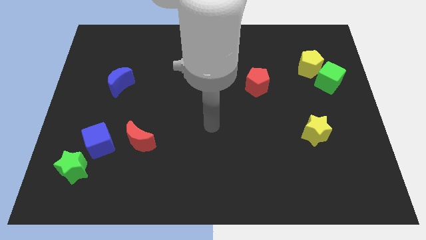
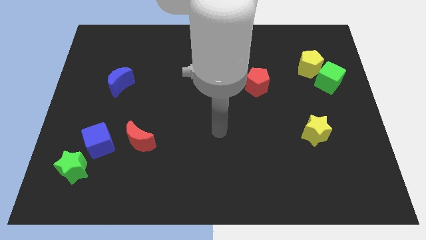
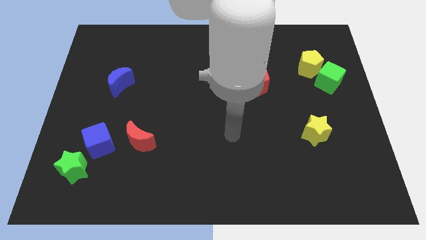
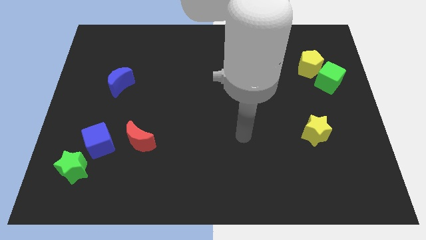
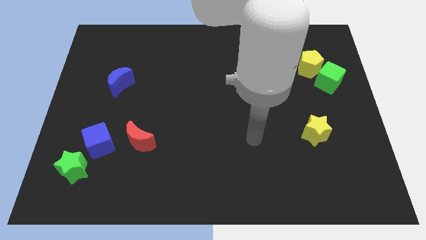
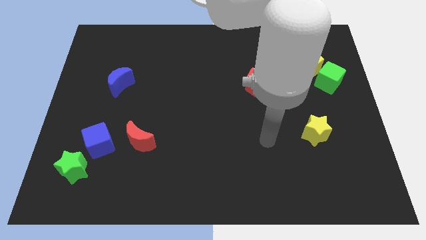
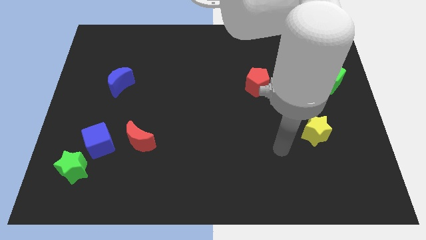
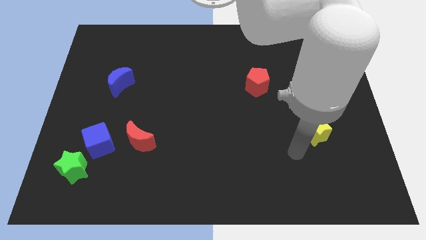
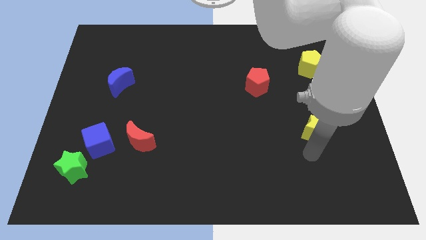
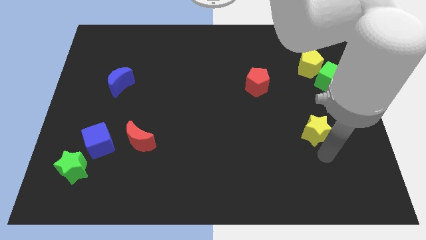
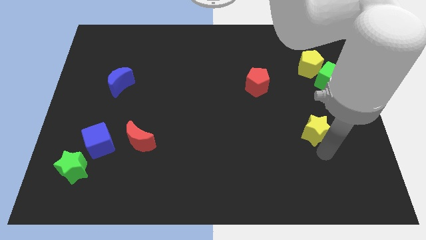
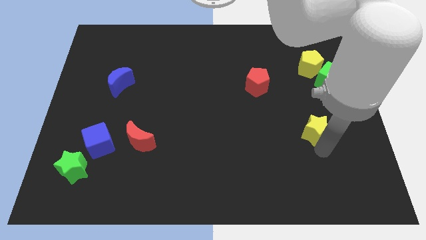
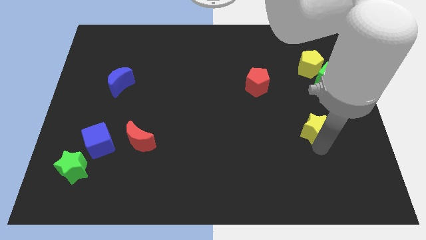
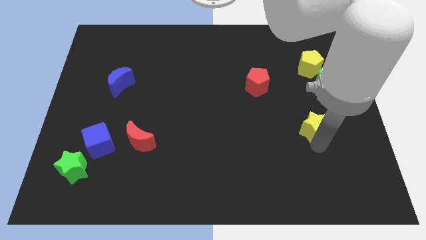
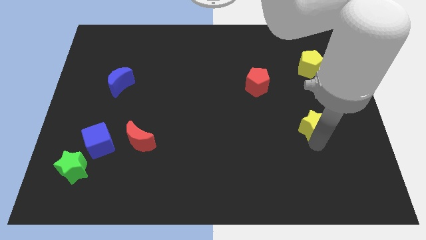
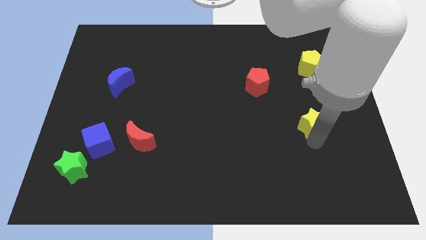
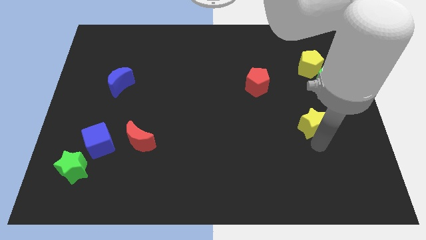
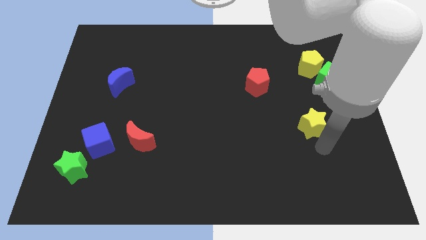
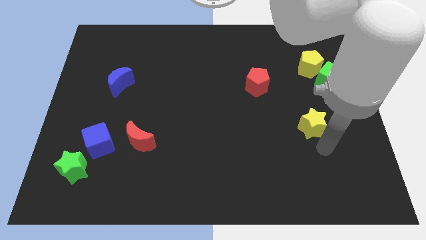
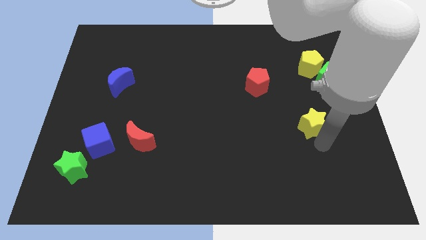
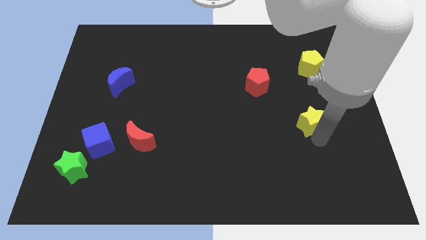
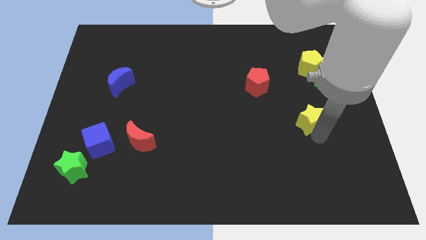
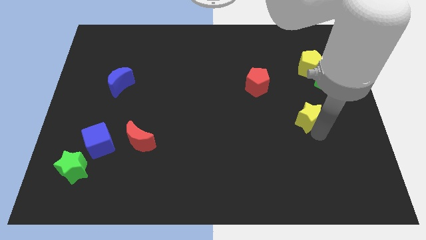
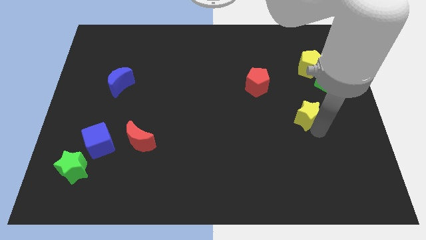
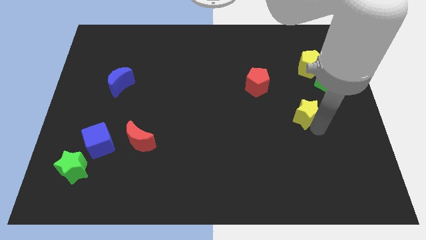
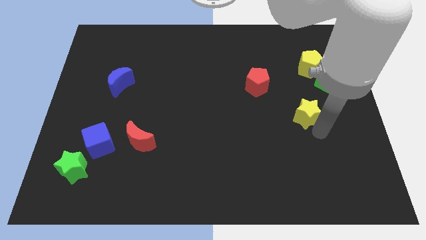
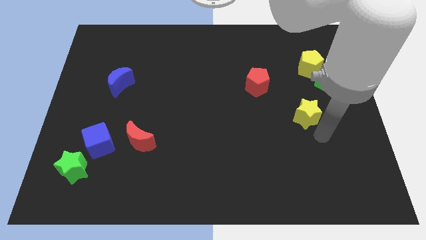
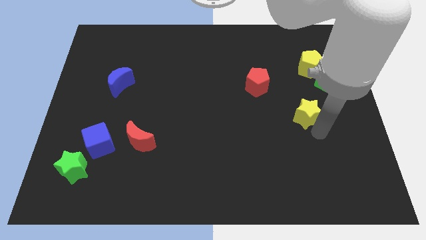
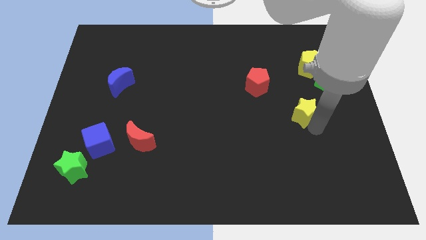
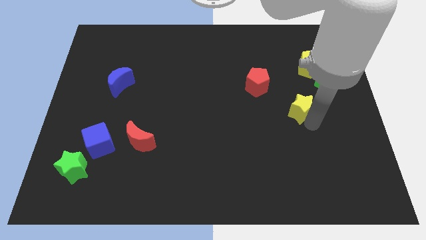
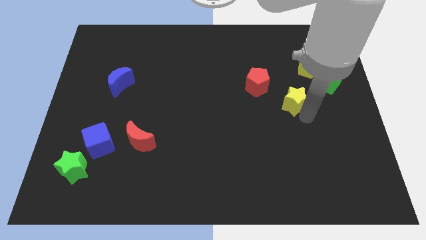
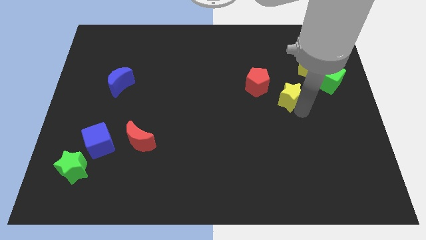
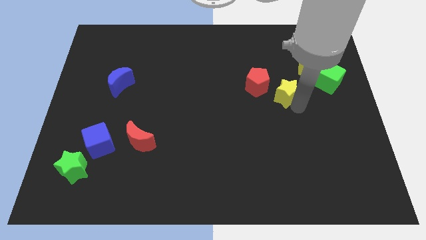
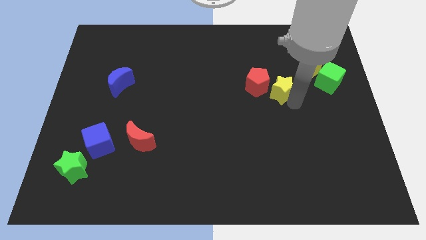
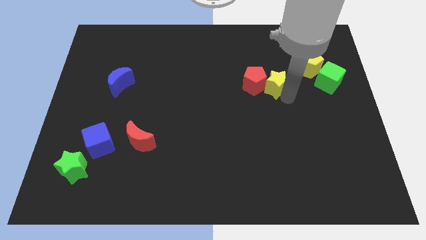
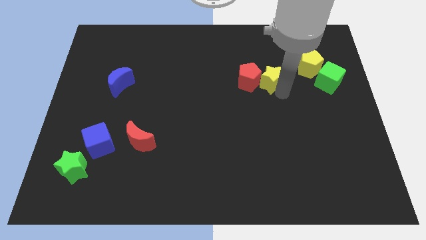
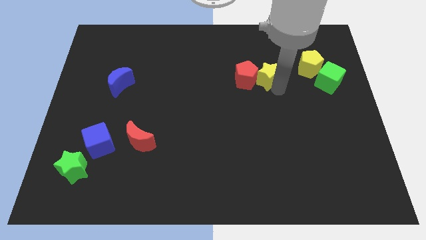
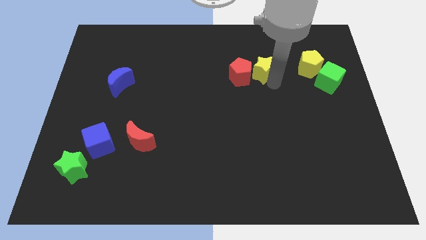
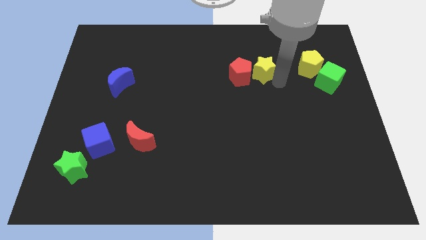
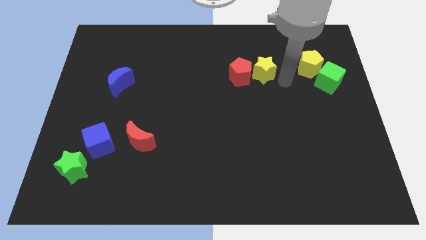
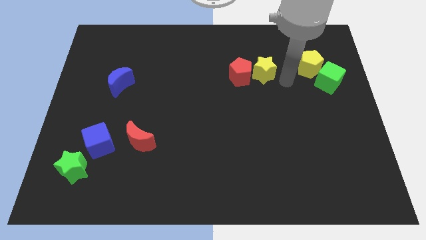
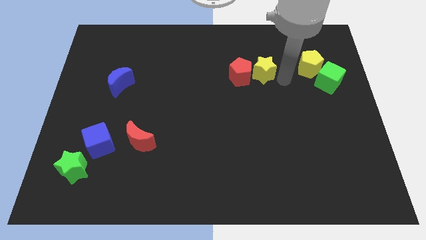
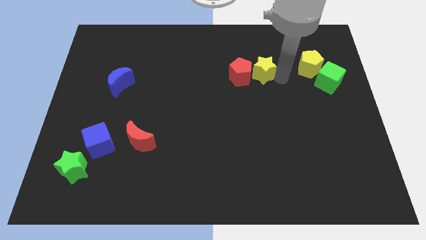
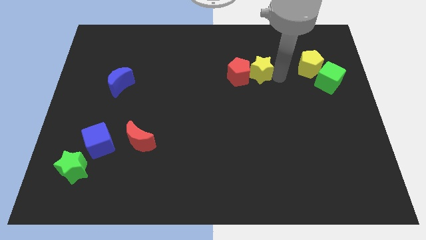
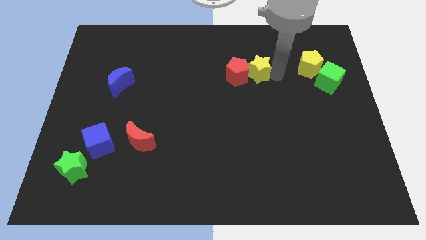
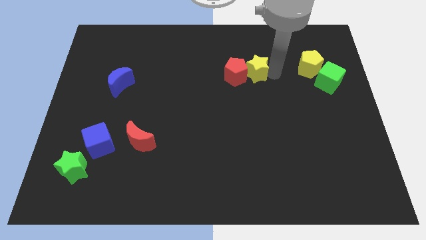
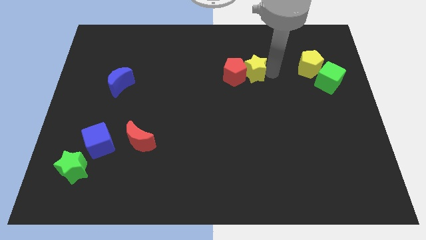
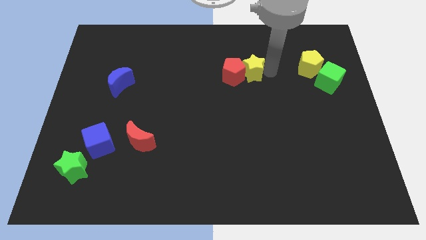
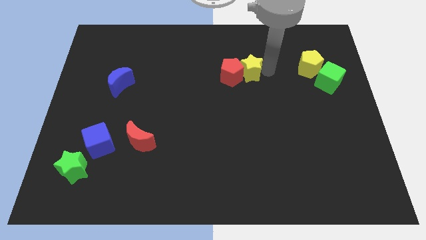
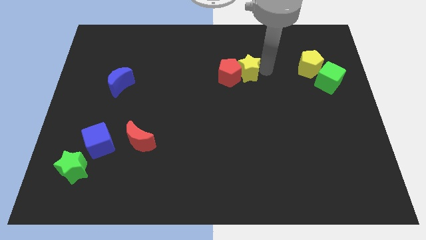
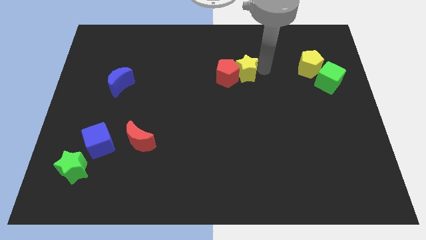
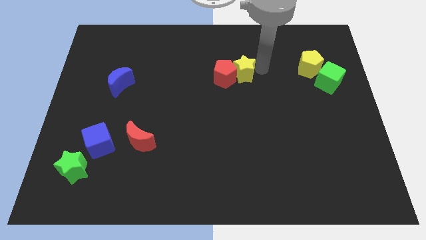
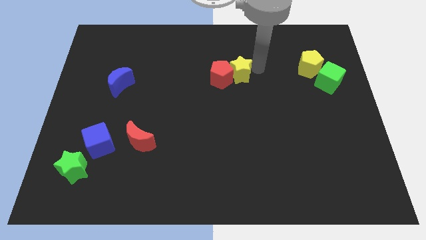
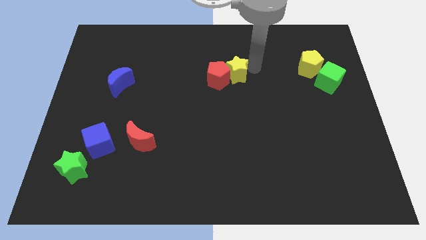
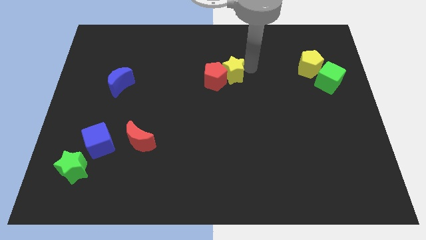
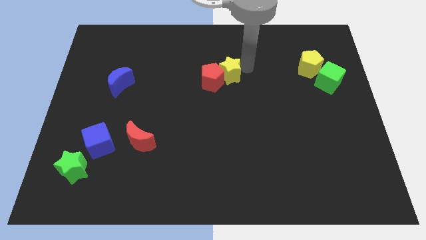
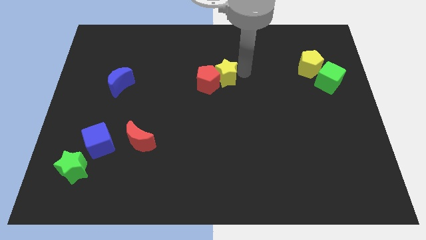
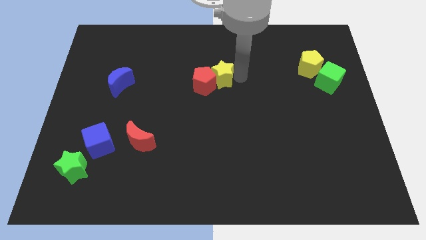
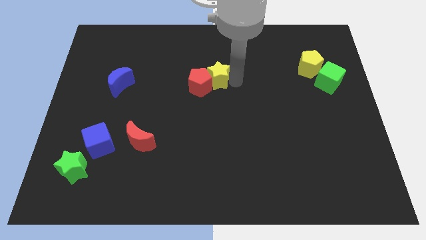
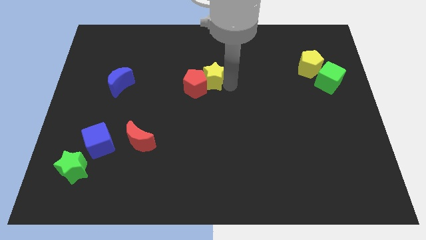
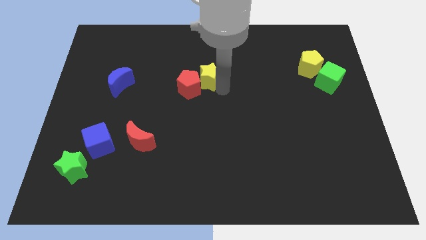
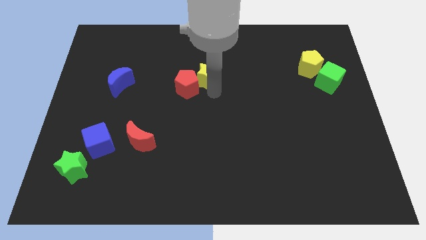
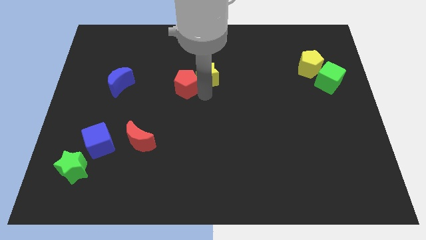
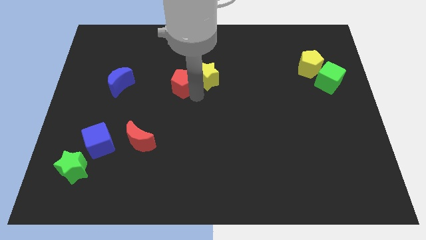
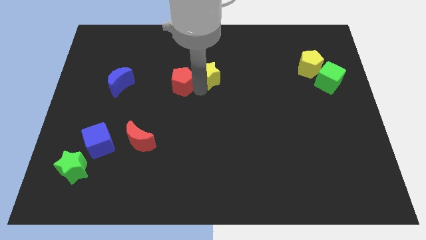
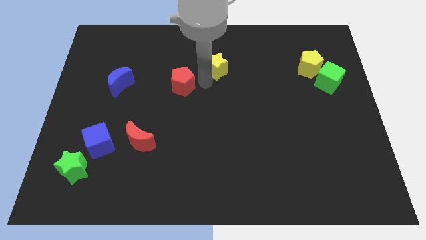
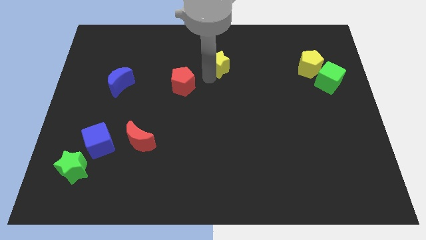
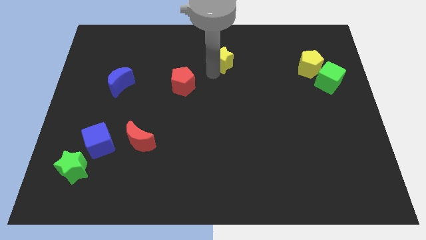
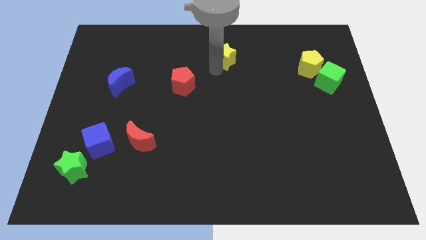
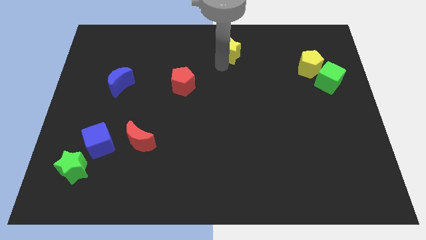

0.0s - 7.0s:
move the yellow star to the towards your base
